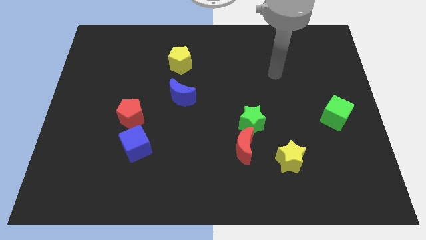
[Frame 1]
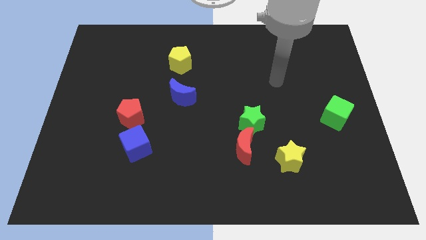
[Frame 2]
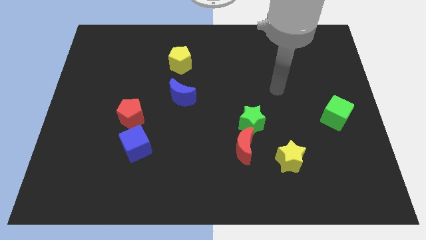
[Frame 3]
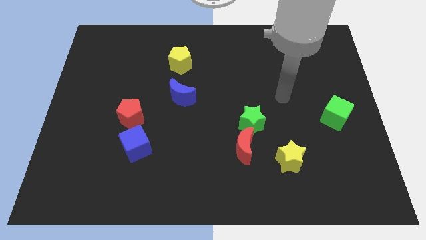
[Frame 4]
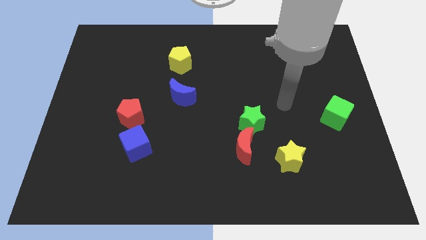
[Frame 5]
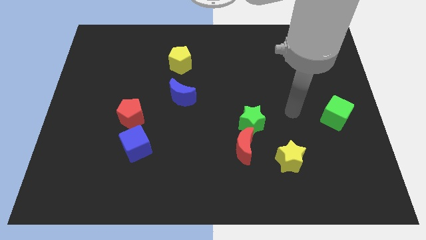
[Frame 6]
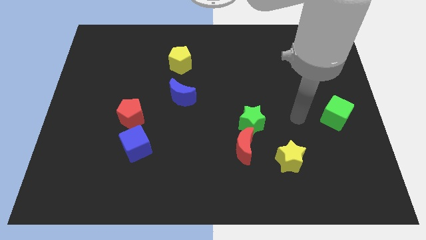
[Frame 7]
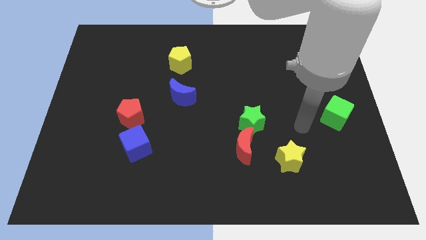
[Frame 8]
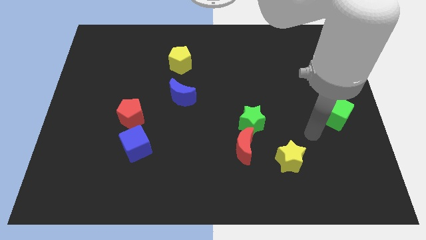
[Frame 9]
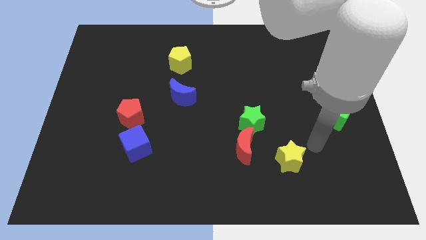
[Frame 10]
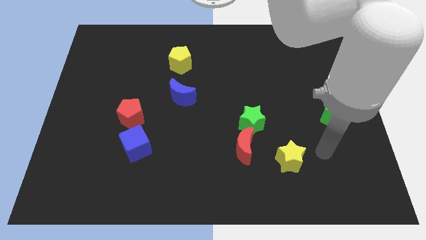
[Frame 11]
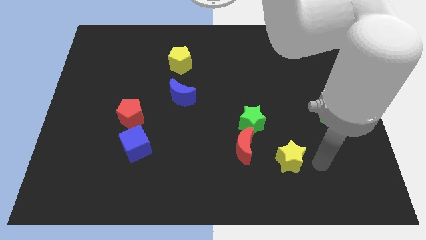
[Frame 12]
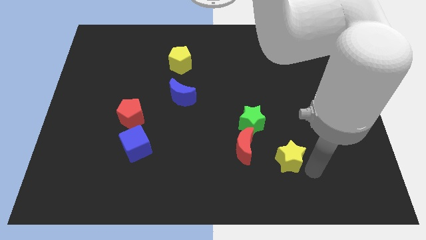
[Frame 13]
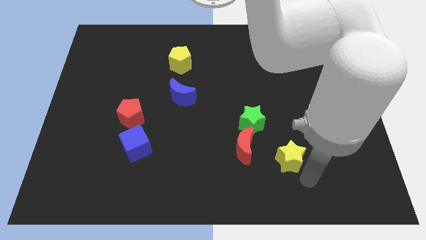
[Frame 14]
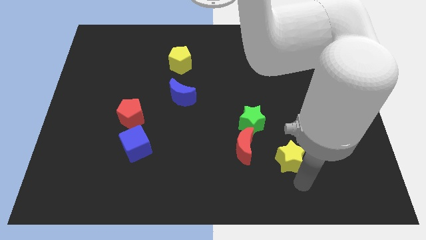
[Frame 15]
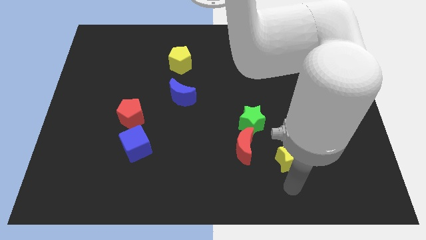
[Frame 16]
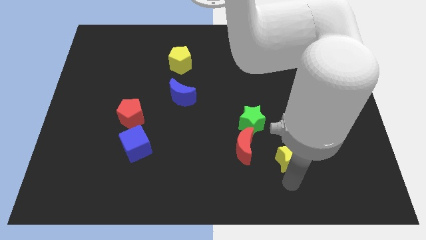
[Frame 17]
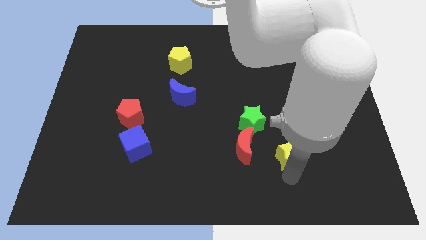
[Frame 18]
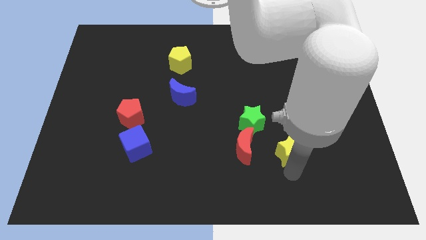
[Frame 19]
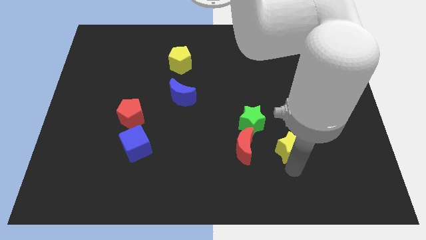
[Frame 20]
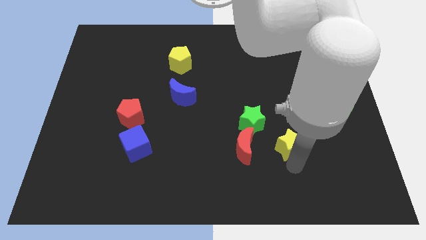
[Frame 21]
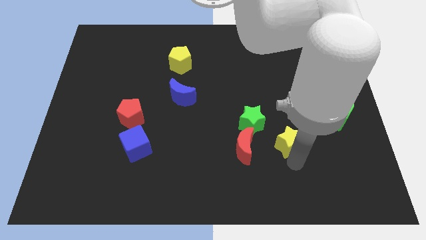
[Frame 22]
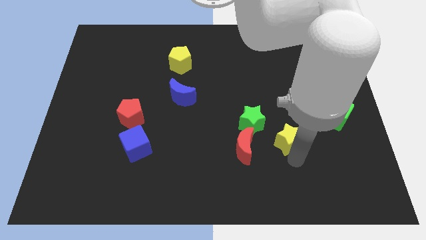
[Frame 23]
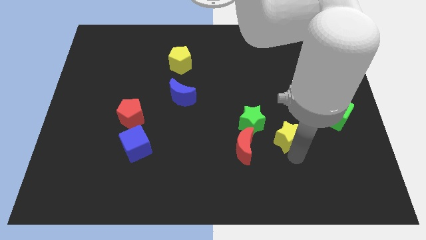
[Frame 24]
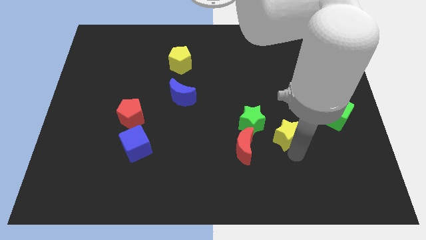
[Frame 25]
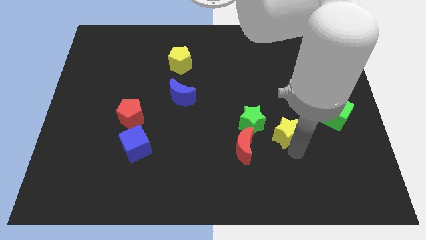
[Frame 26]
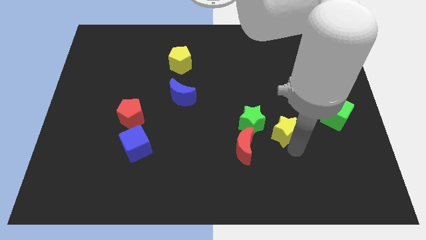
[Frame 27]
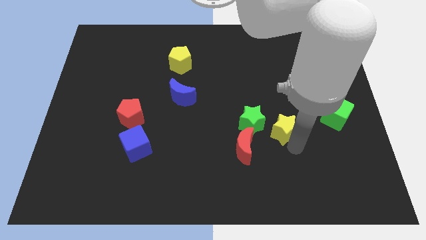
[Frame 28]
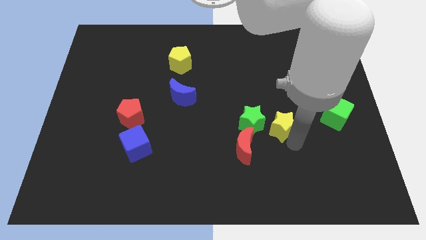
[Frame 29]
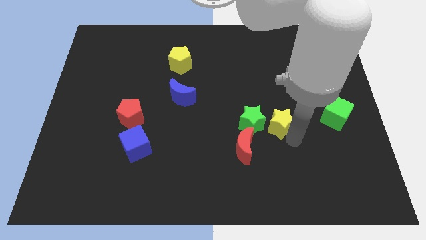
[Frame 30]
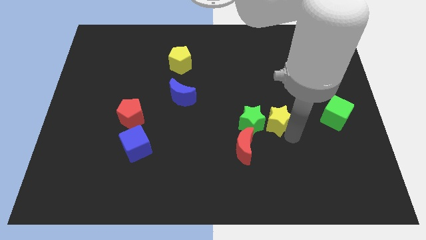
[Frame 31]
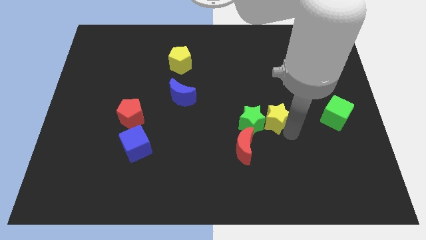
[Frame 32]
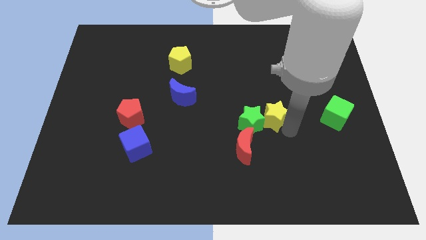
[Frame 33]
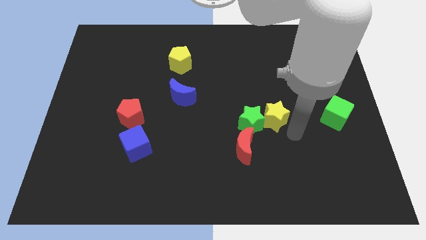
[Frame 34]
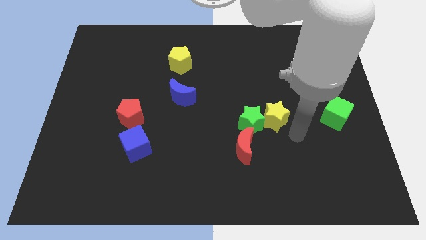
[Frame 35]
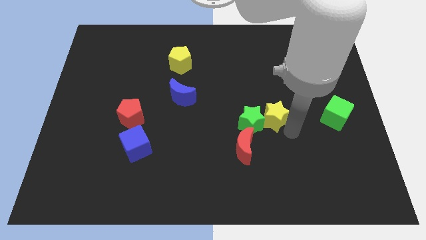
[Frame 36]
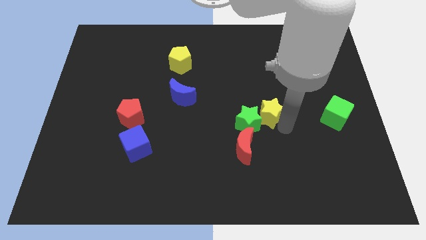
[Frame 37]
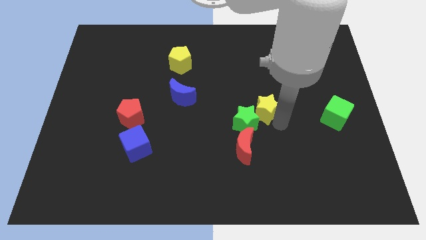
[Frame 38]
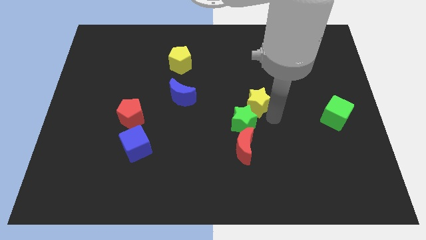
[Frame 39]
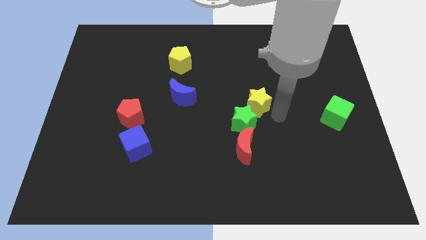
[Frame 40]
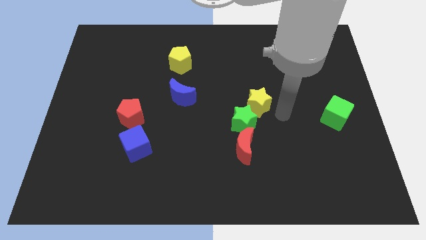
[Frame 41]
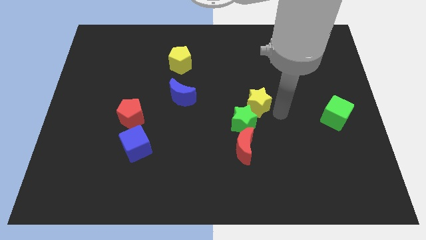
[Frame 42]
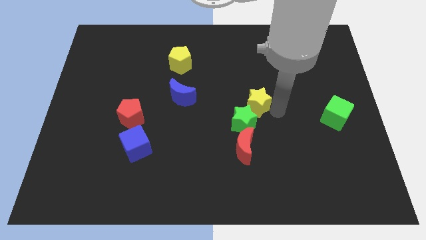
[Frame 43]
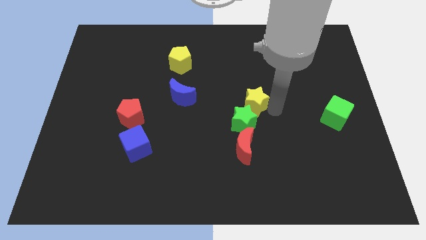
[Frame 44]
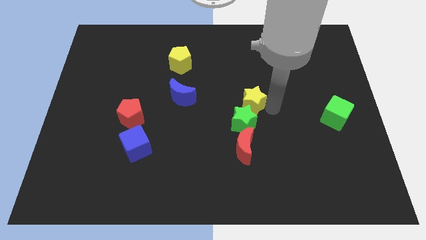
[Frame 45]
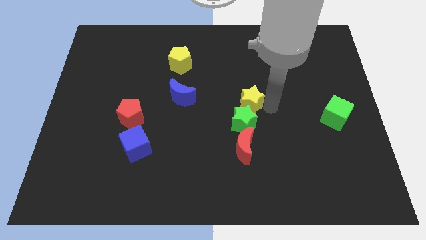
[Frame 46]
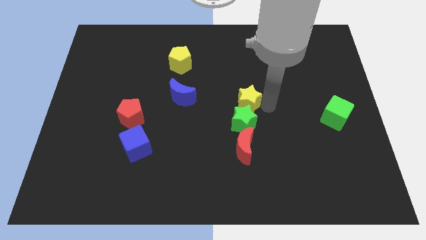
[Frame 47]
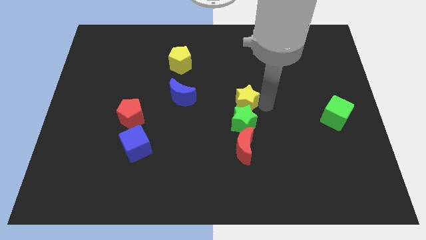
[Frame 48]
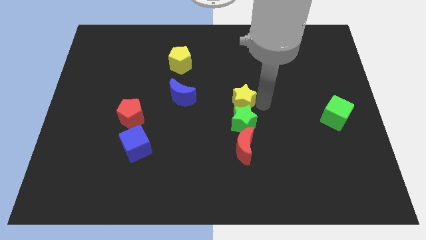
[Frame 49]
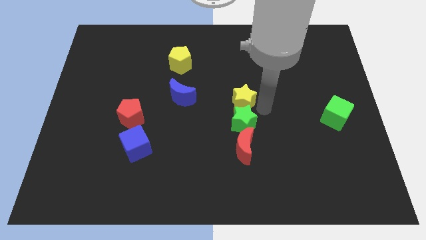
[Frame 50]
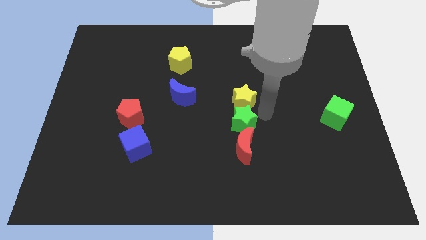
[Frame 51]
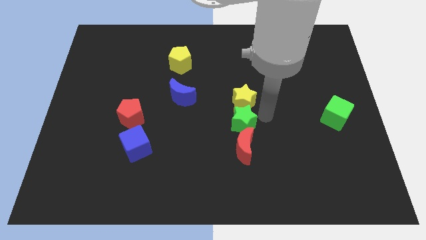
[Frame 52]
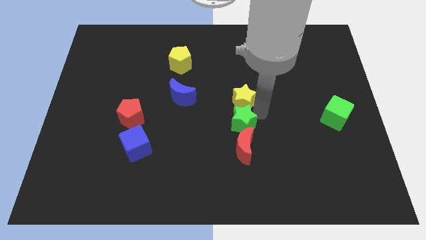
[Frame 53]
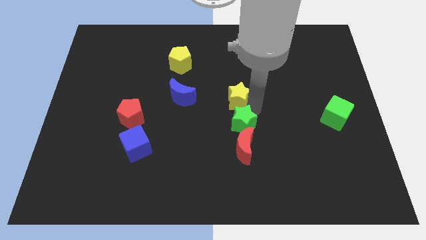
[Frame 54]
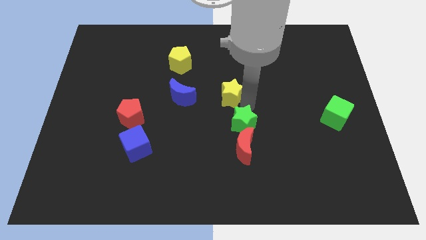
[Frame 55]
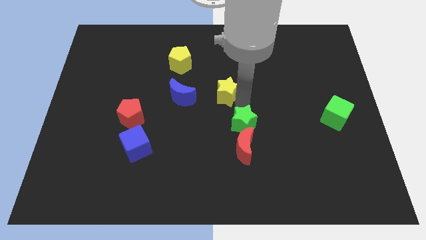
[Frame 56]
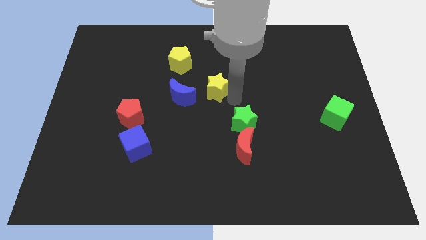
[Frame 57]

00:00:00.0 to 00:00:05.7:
push the yellow star to the bottom right of the yellow pentagon
